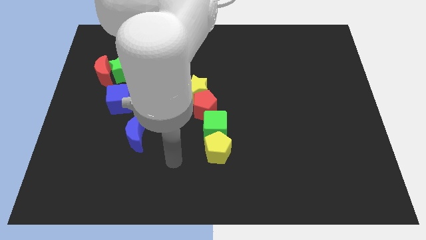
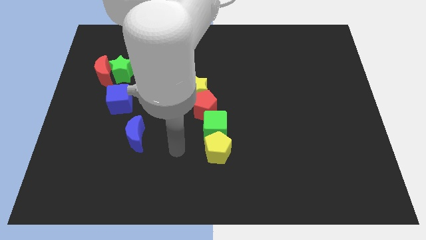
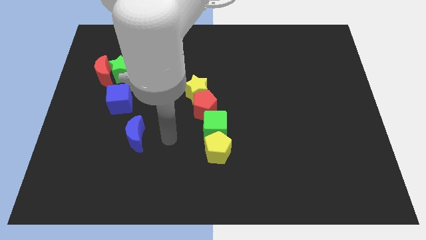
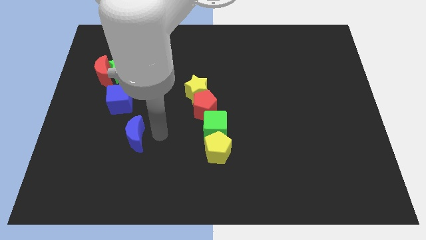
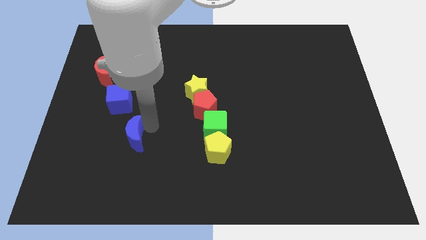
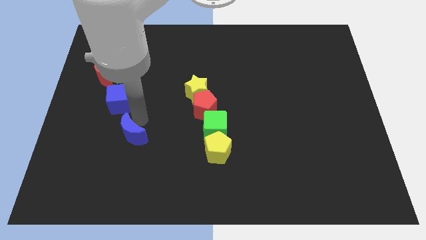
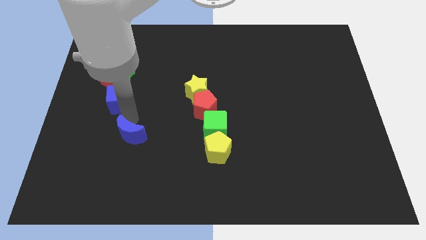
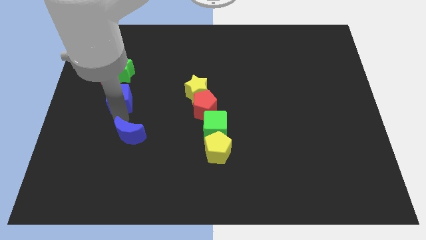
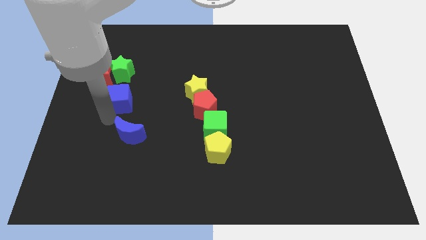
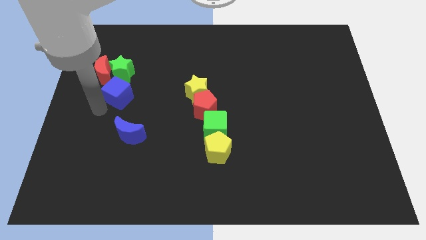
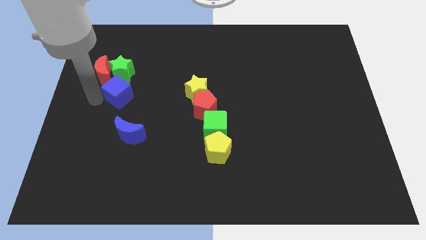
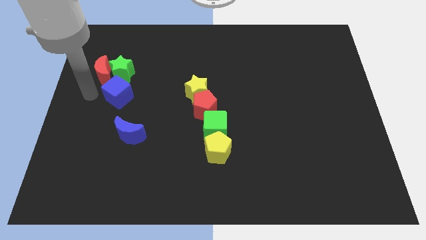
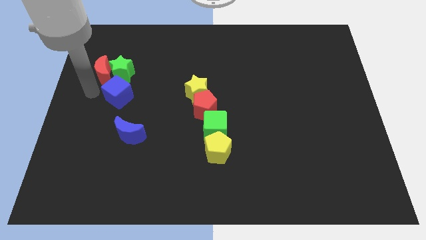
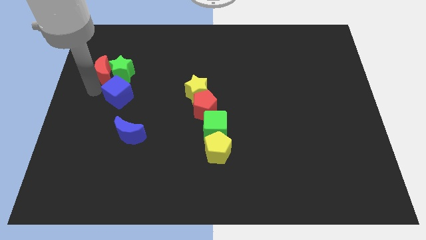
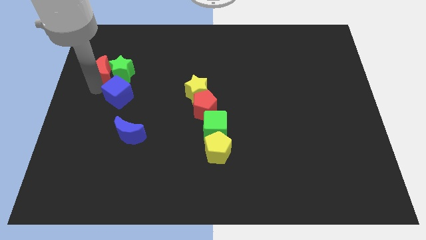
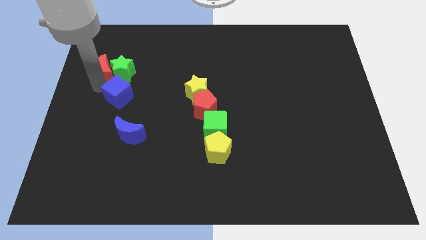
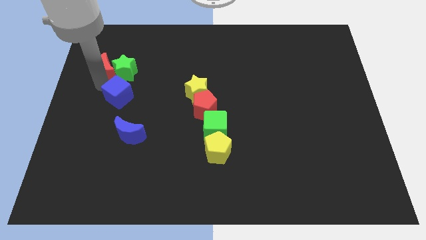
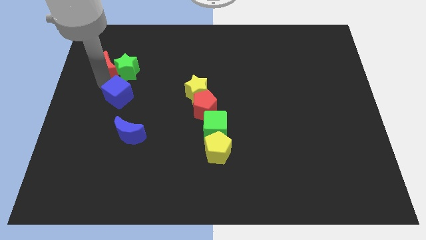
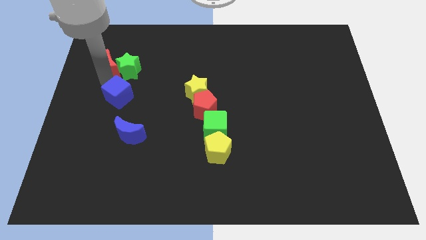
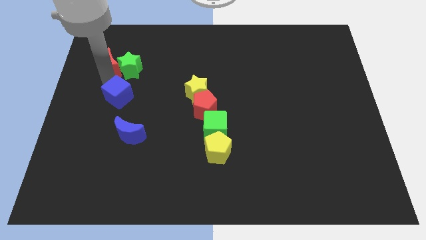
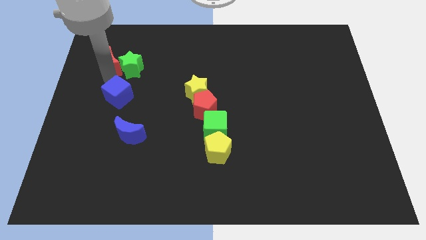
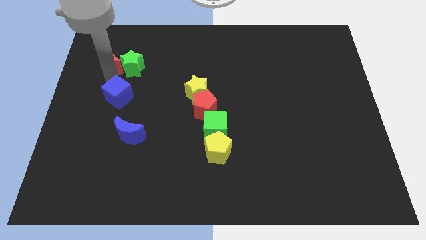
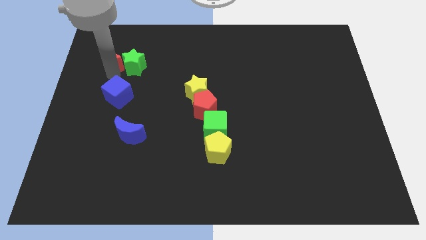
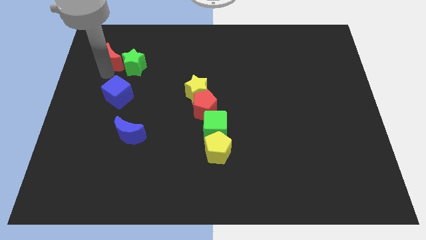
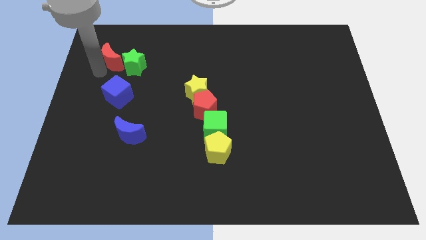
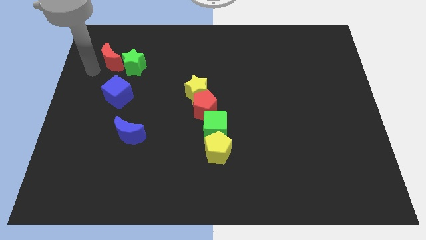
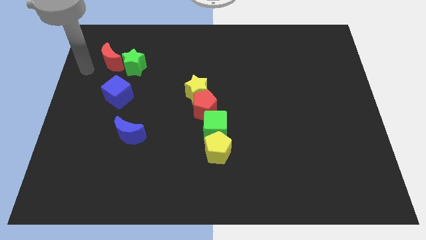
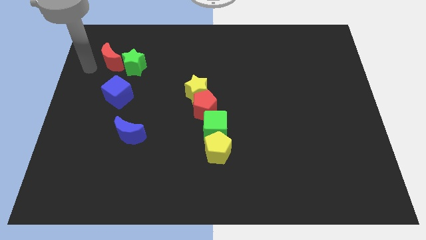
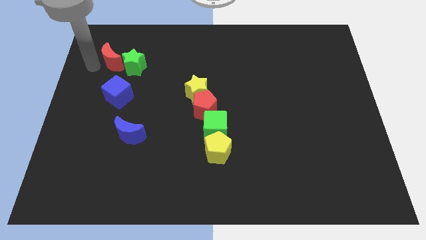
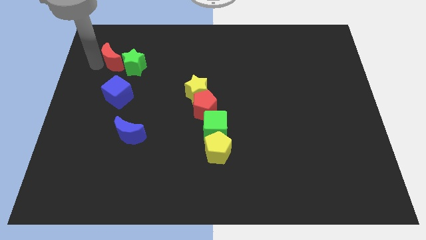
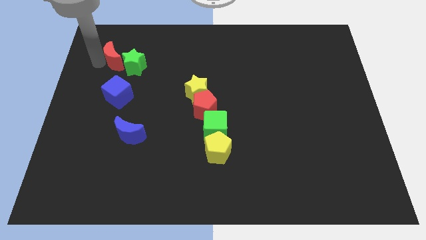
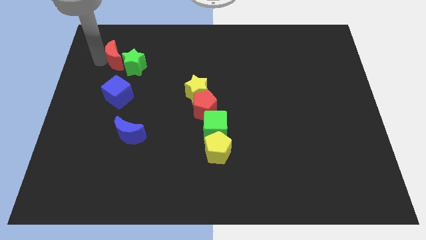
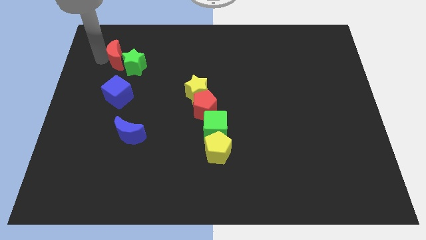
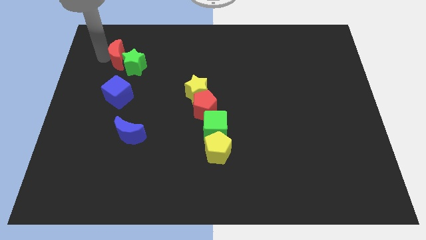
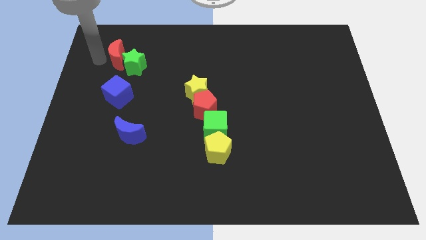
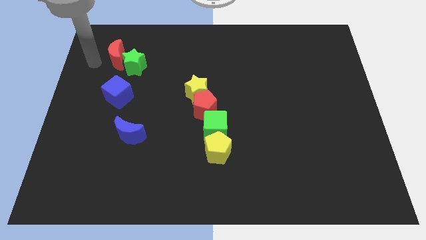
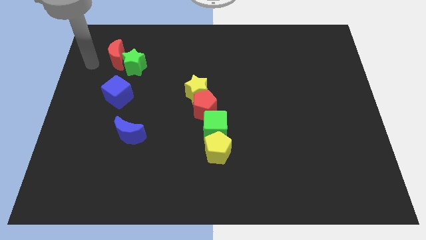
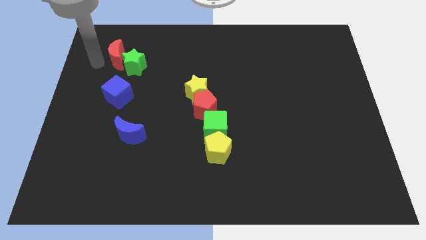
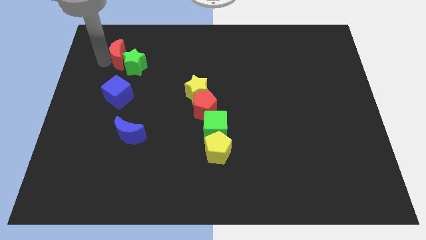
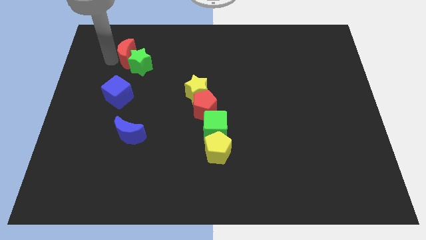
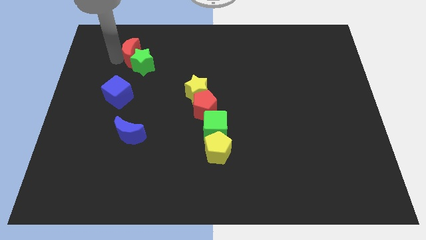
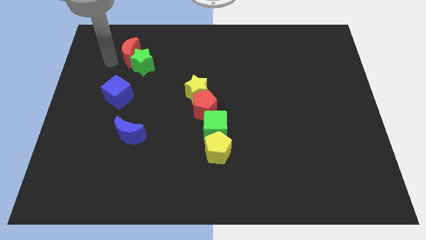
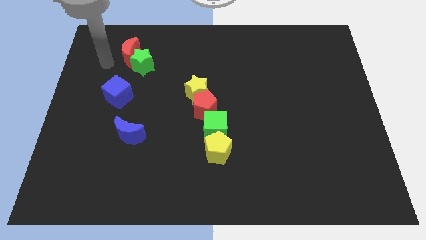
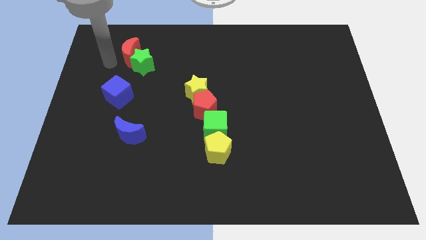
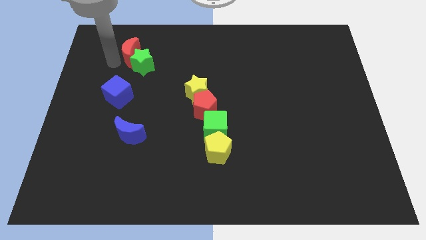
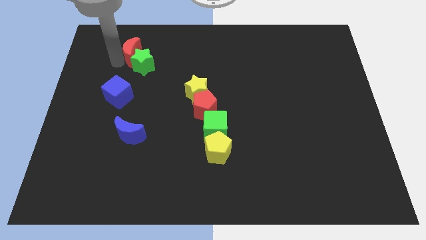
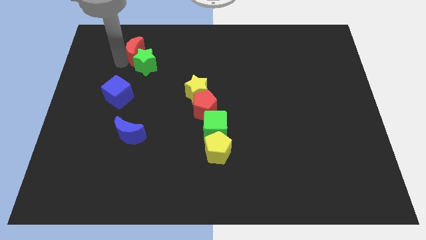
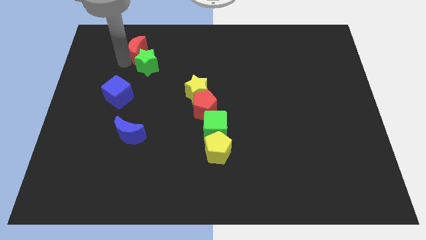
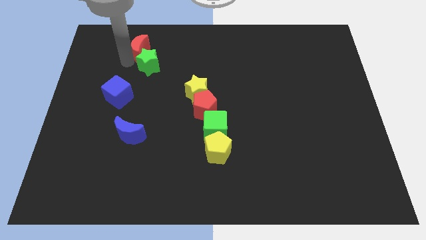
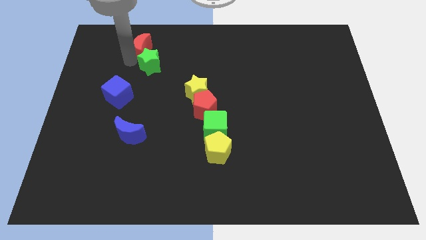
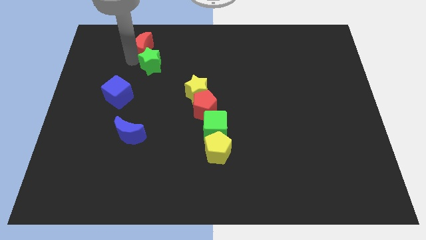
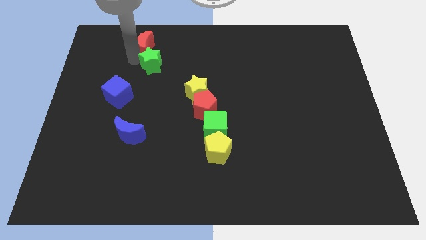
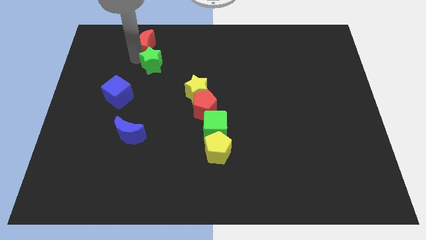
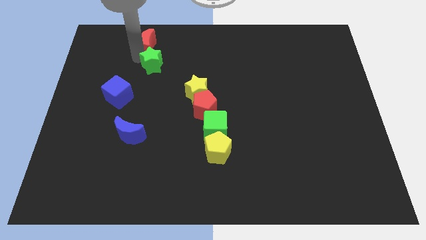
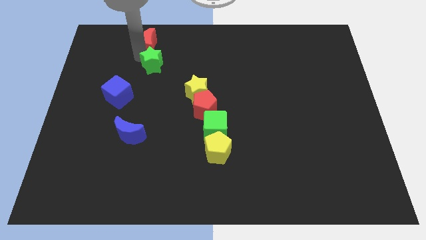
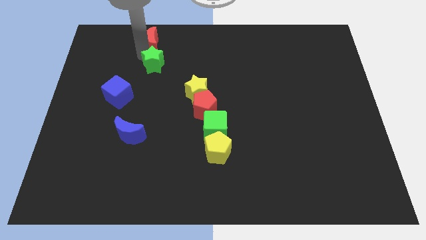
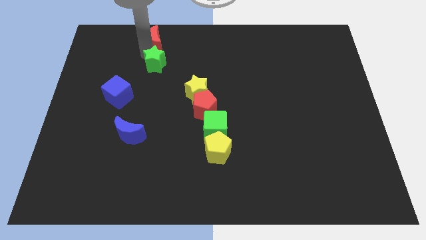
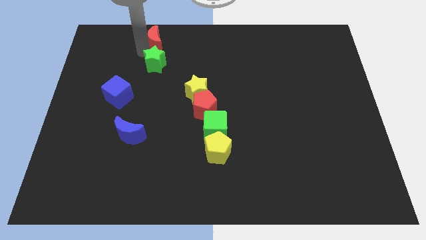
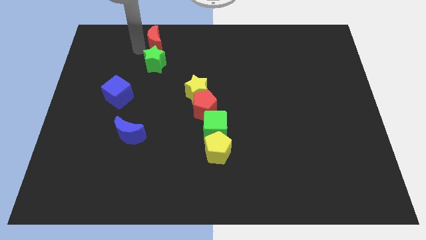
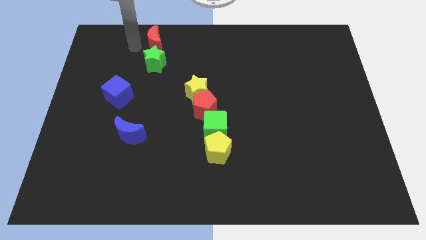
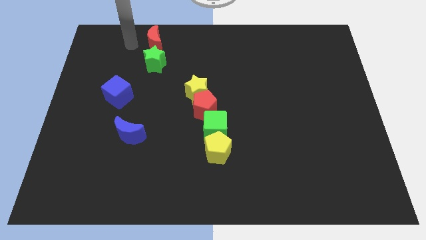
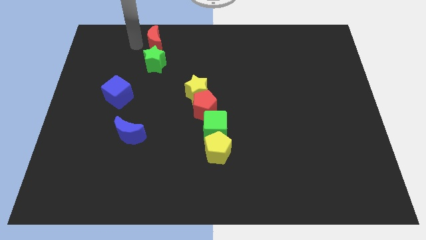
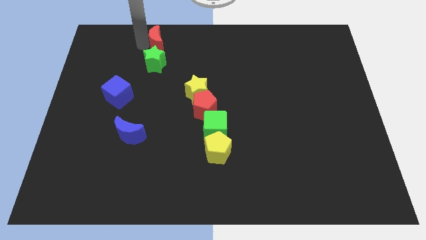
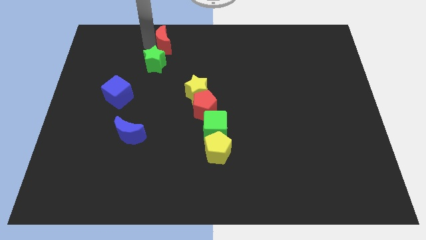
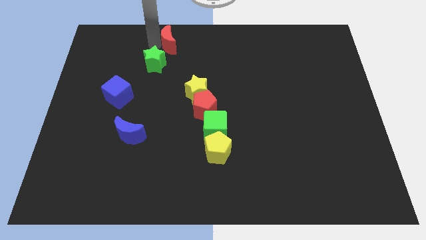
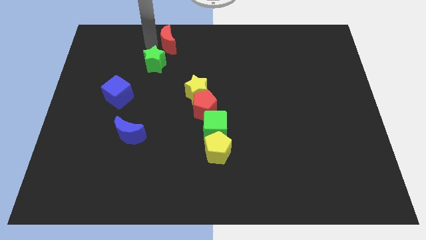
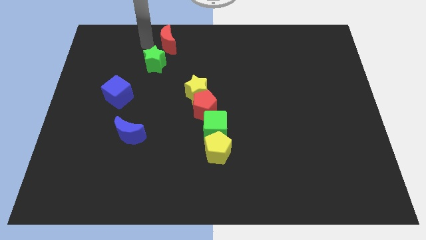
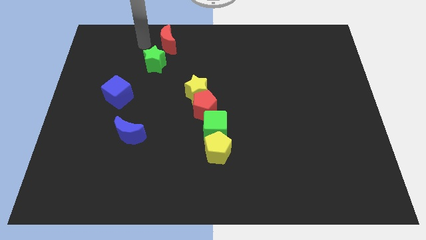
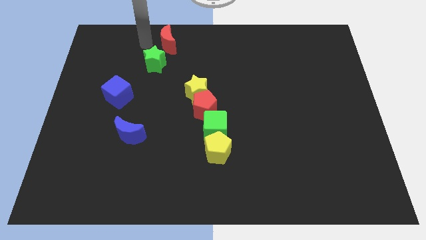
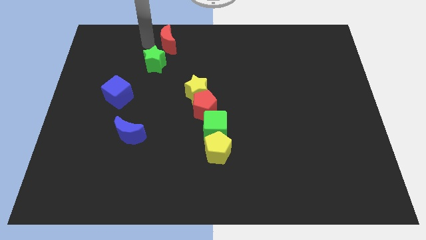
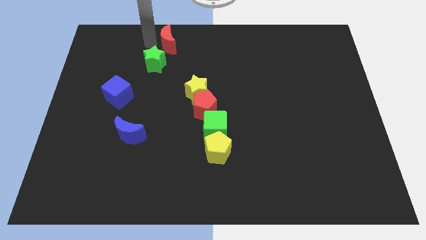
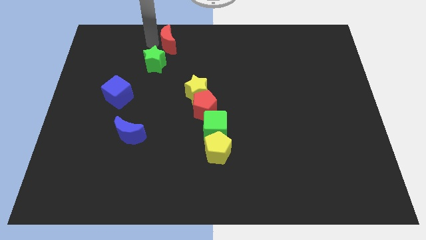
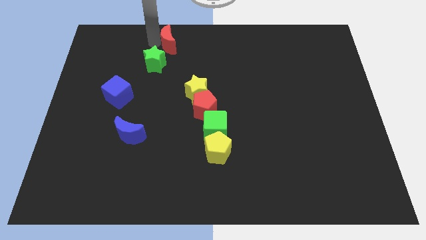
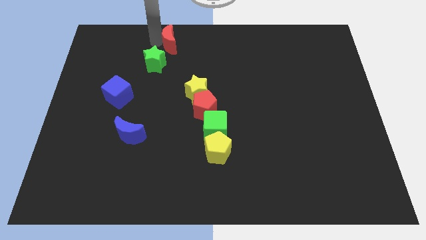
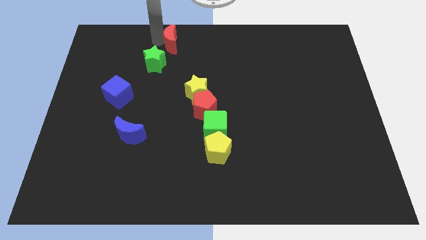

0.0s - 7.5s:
slide the red moon to the top side
